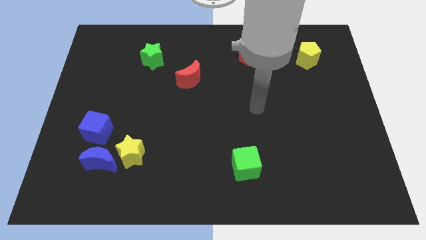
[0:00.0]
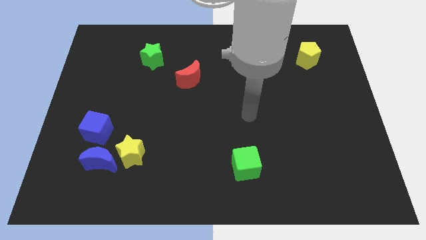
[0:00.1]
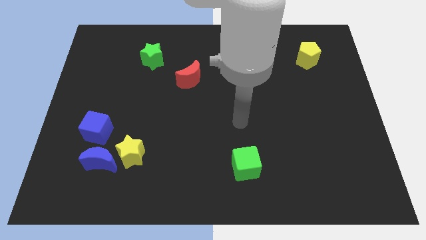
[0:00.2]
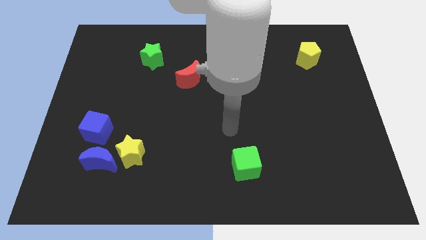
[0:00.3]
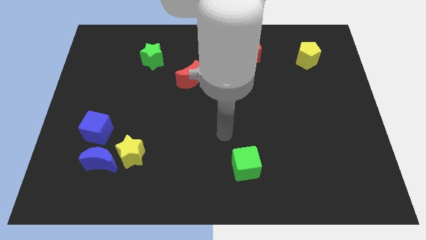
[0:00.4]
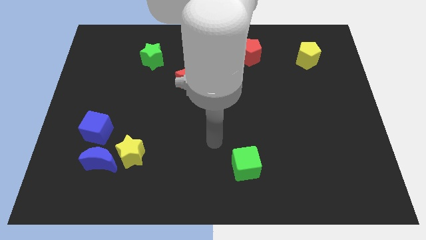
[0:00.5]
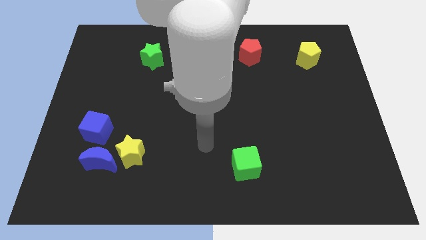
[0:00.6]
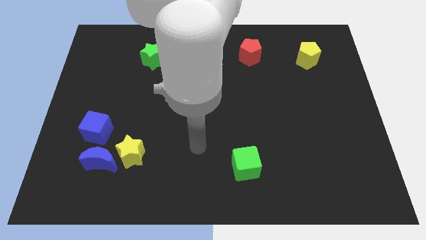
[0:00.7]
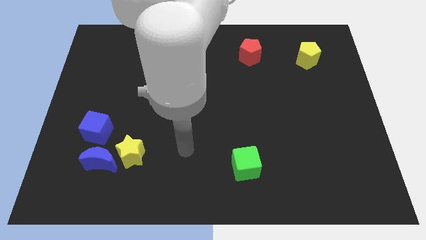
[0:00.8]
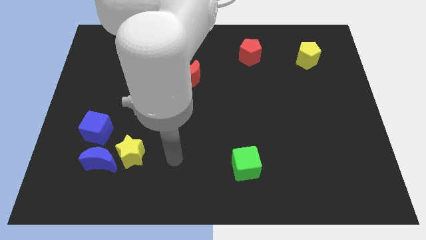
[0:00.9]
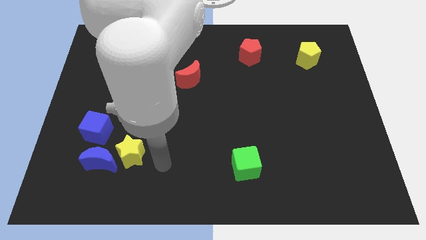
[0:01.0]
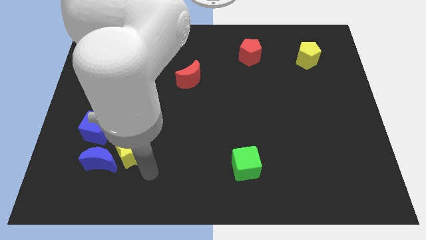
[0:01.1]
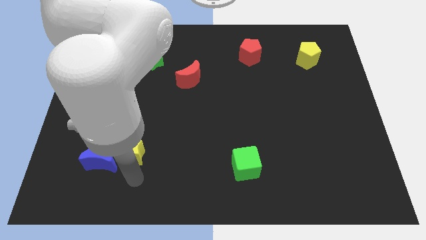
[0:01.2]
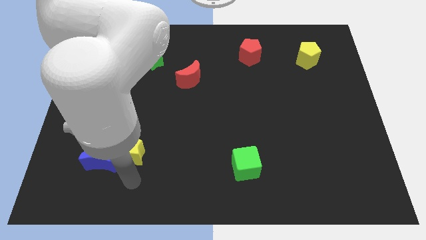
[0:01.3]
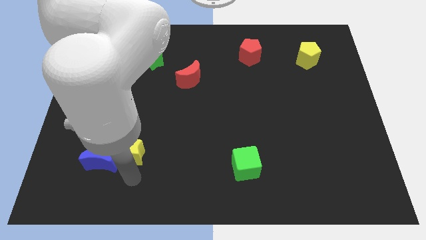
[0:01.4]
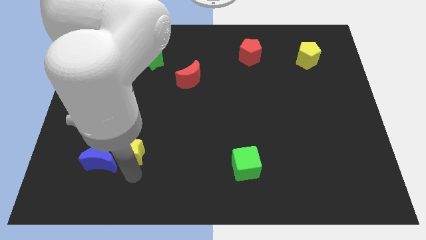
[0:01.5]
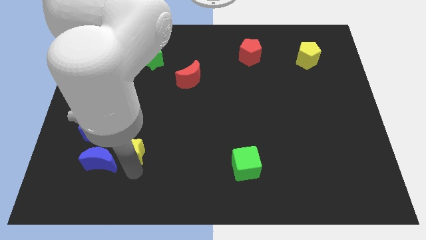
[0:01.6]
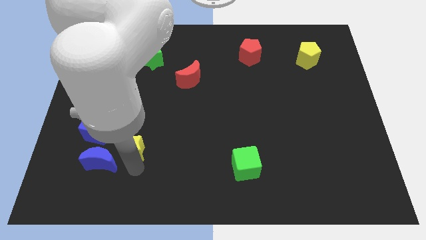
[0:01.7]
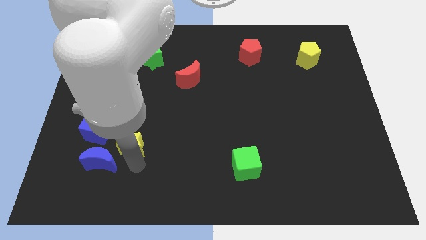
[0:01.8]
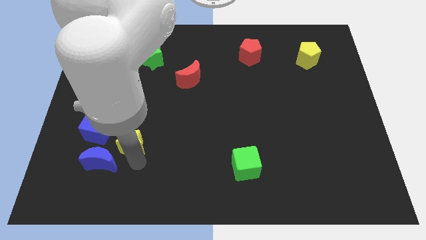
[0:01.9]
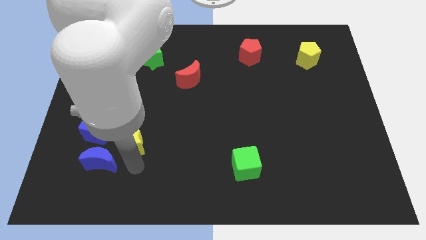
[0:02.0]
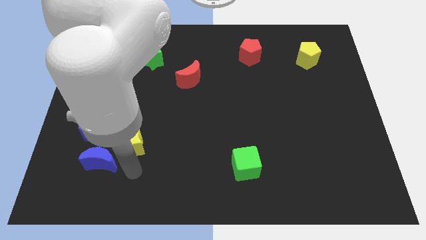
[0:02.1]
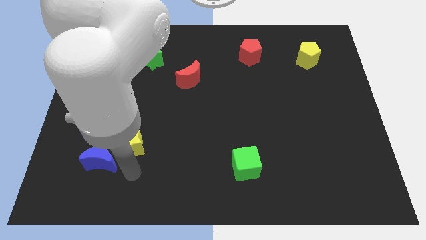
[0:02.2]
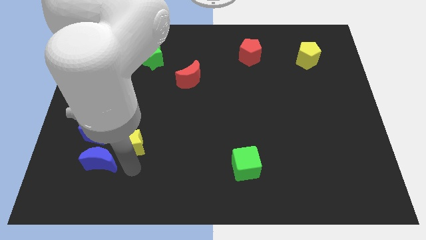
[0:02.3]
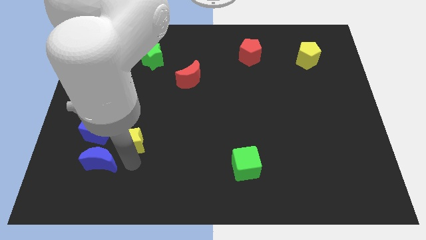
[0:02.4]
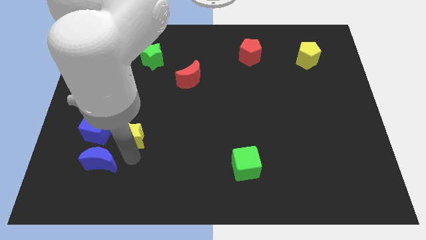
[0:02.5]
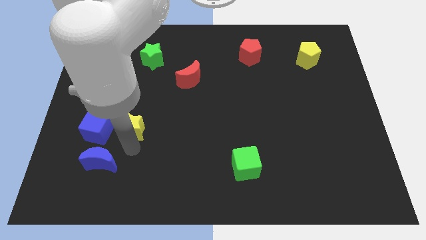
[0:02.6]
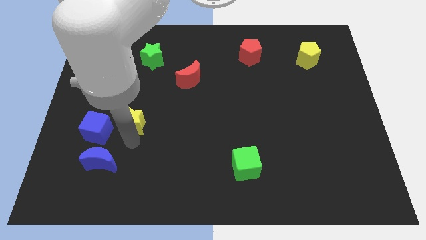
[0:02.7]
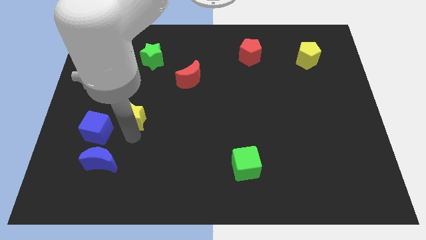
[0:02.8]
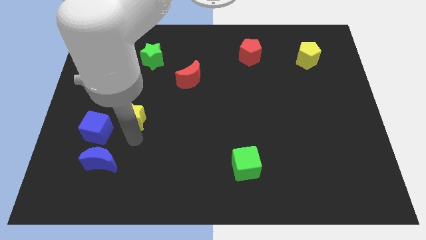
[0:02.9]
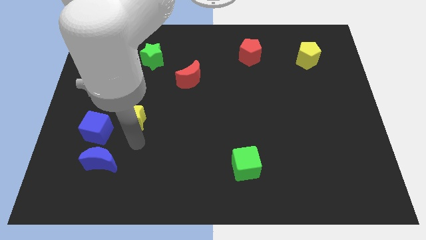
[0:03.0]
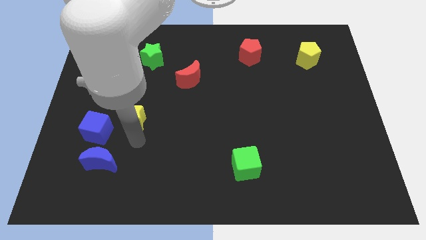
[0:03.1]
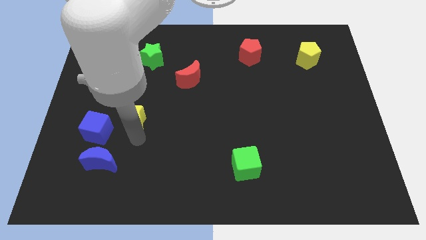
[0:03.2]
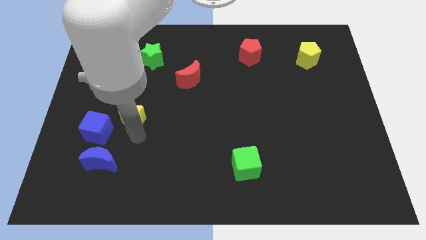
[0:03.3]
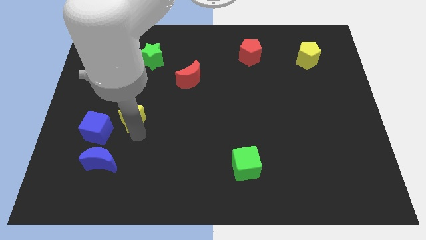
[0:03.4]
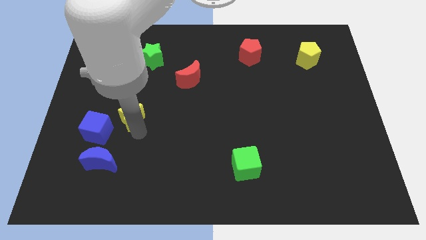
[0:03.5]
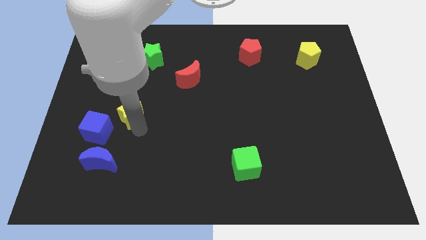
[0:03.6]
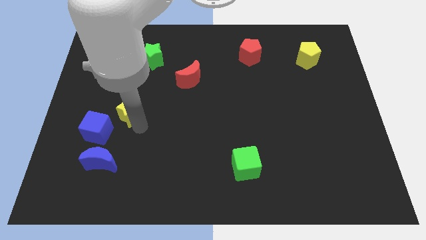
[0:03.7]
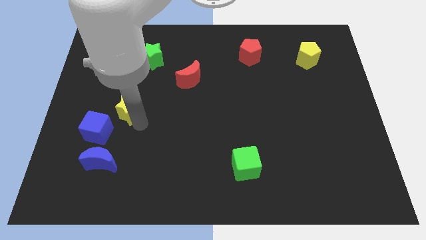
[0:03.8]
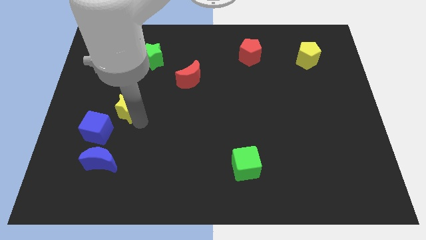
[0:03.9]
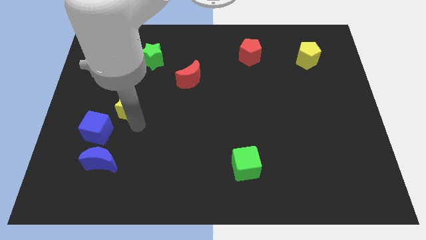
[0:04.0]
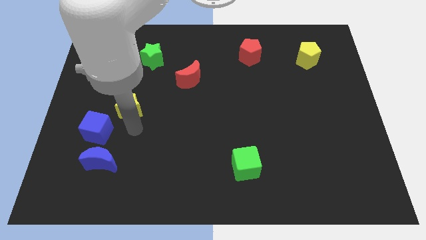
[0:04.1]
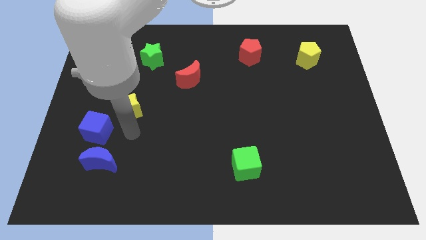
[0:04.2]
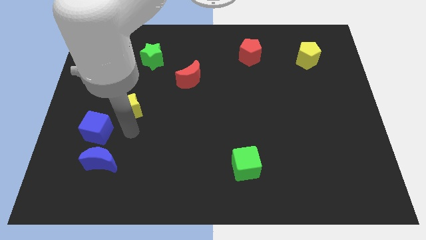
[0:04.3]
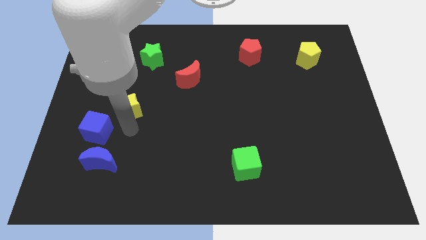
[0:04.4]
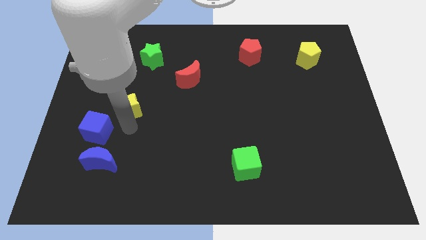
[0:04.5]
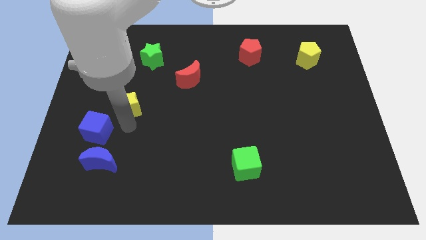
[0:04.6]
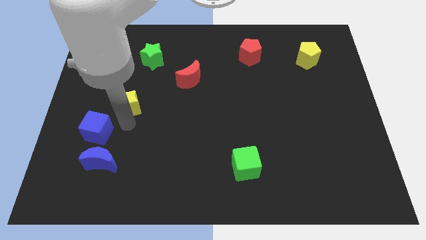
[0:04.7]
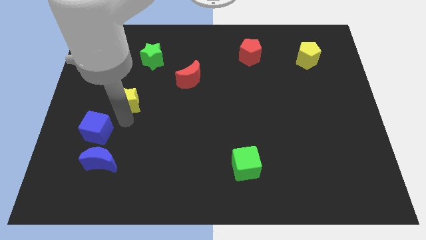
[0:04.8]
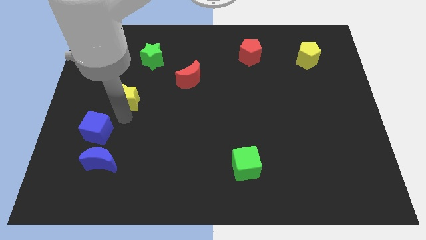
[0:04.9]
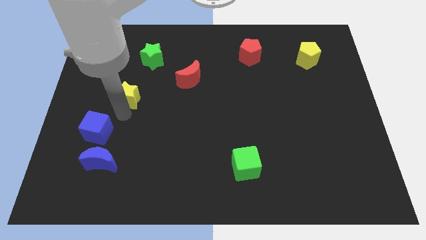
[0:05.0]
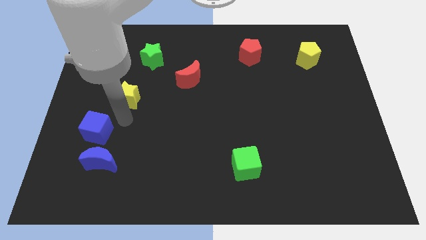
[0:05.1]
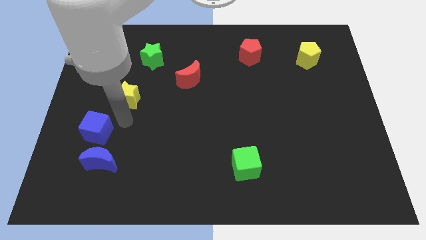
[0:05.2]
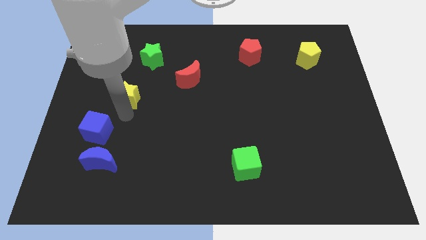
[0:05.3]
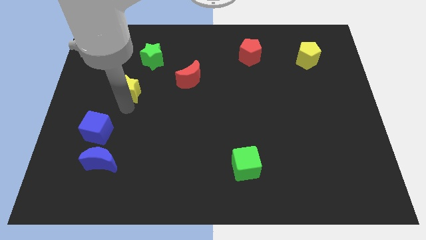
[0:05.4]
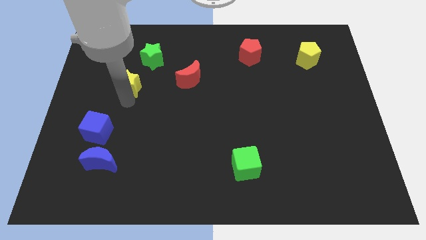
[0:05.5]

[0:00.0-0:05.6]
push the yellow star to the bottom left of the green star

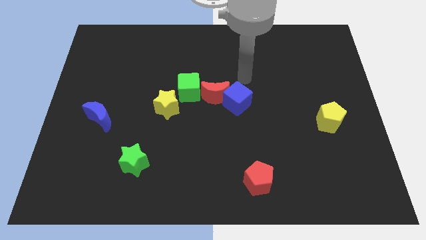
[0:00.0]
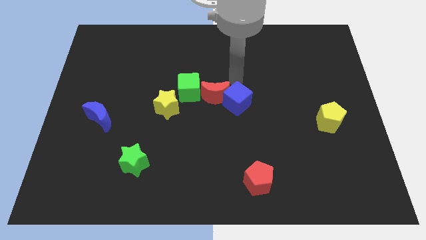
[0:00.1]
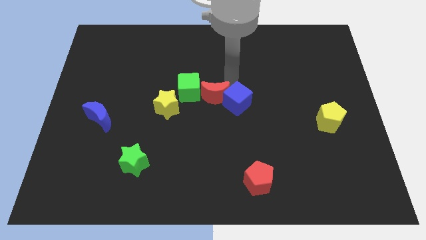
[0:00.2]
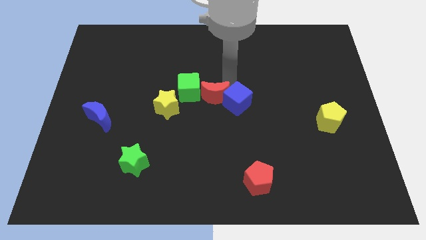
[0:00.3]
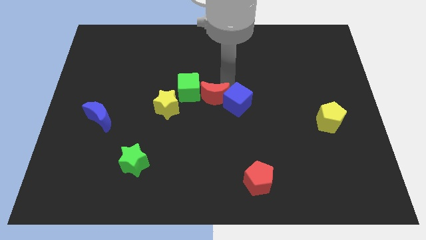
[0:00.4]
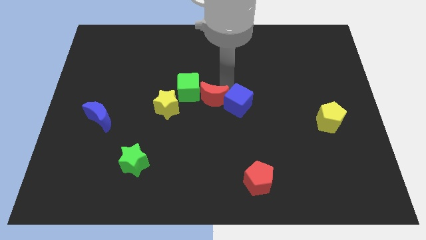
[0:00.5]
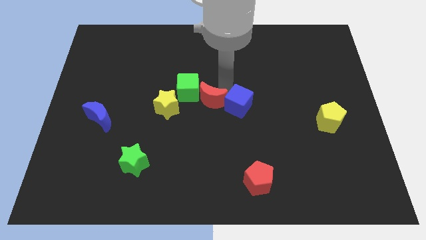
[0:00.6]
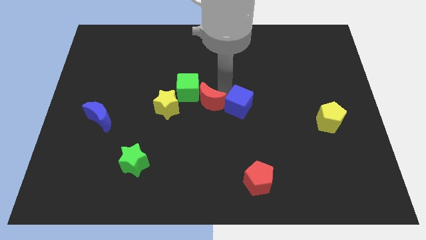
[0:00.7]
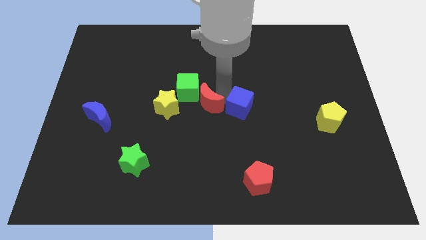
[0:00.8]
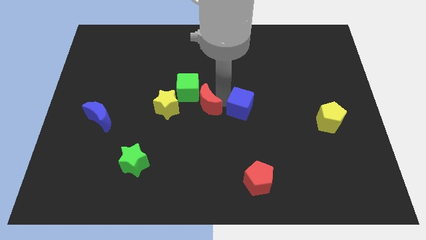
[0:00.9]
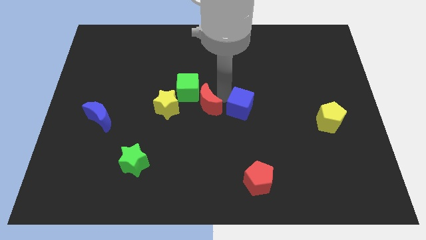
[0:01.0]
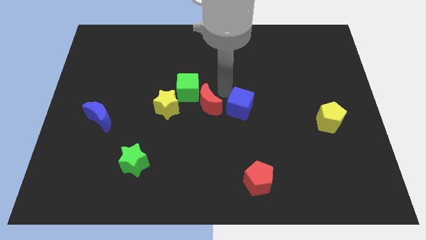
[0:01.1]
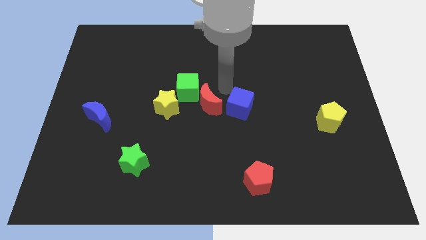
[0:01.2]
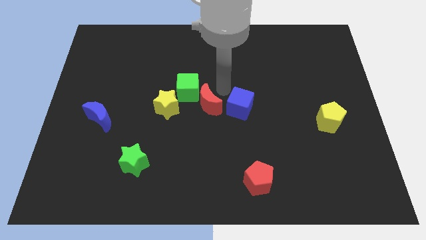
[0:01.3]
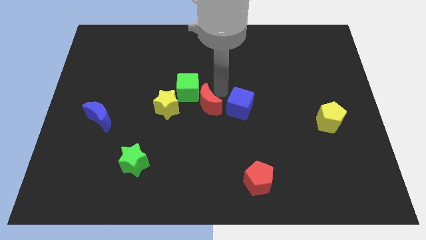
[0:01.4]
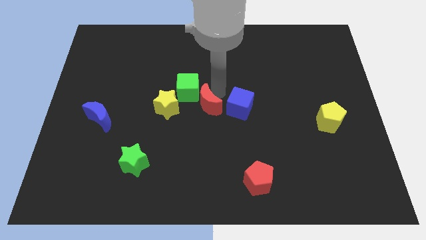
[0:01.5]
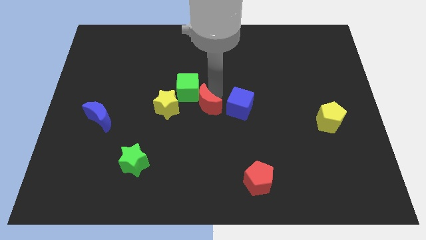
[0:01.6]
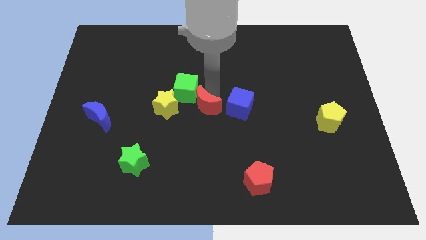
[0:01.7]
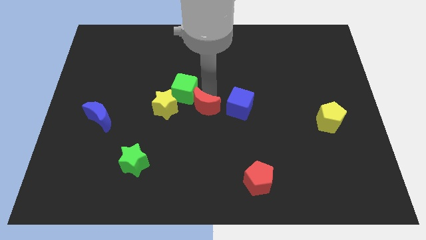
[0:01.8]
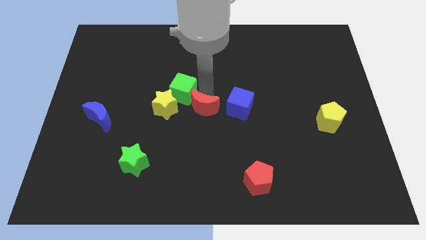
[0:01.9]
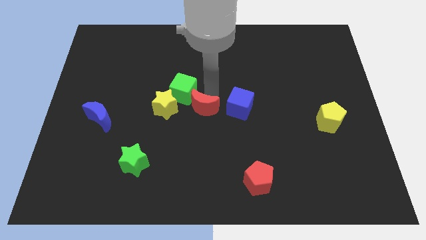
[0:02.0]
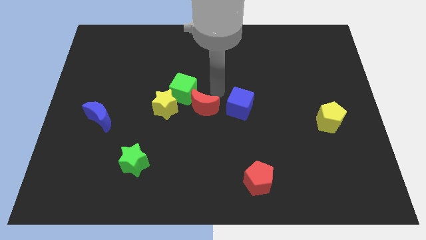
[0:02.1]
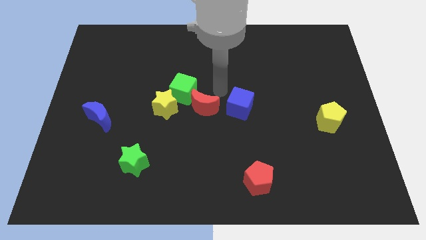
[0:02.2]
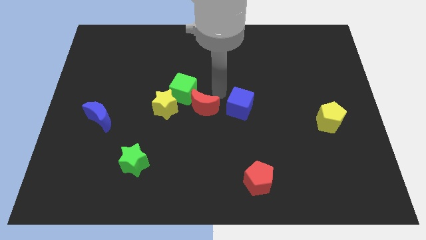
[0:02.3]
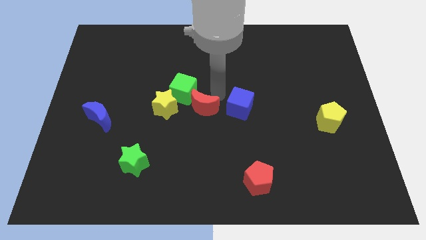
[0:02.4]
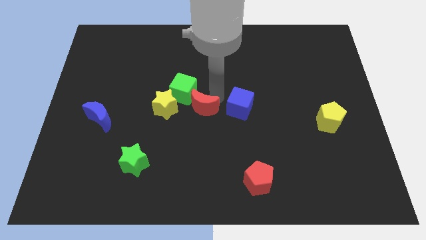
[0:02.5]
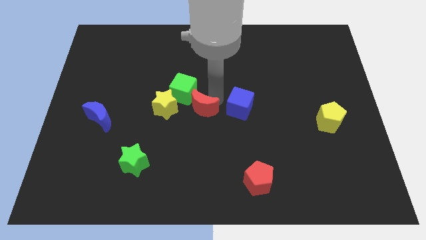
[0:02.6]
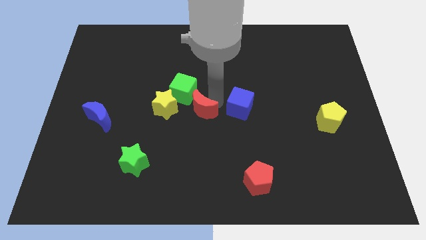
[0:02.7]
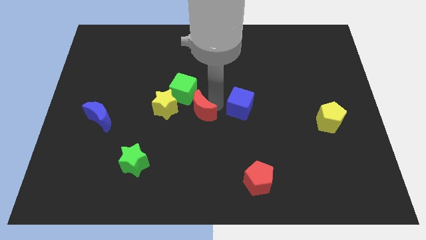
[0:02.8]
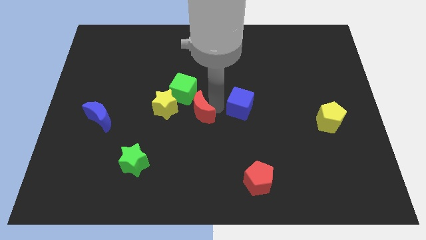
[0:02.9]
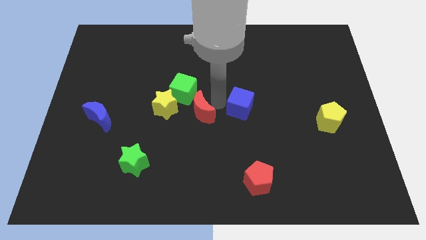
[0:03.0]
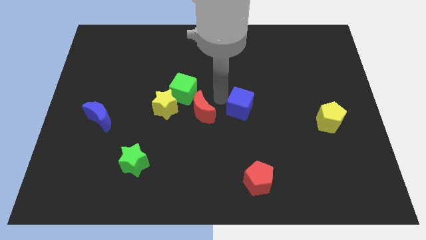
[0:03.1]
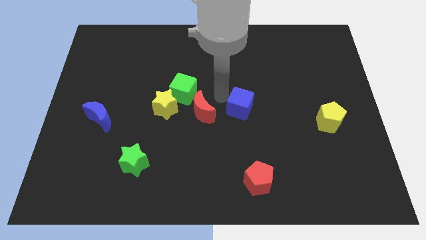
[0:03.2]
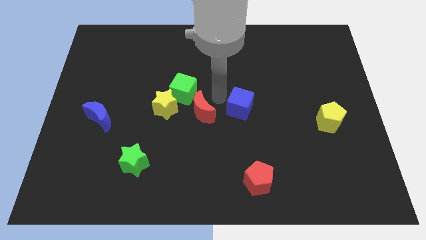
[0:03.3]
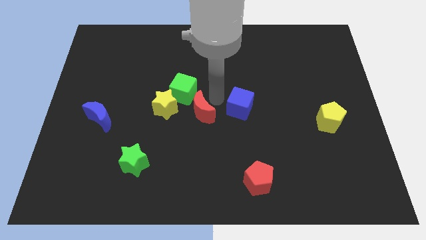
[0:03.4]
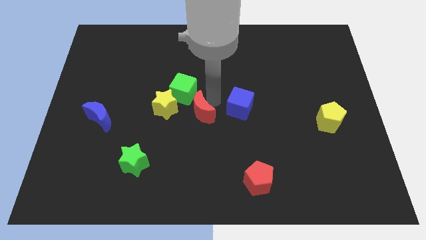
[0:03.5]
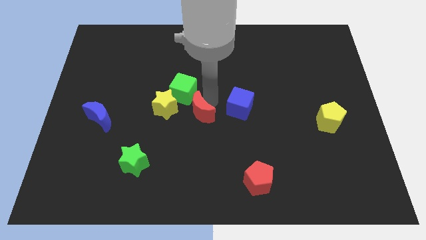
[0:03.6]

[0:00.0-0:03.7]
put the red moon to the bottom right of the yellow star
